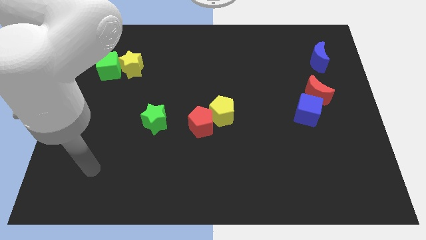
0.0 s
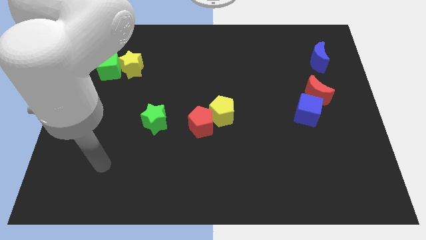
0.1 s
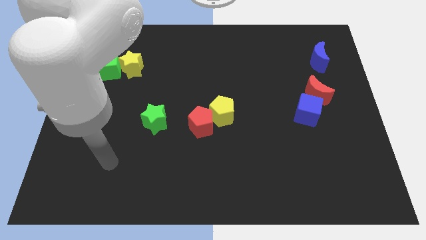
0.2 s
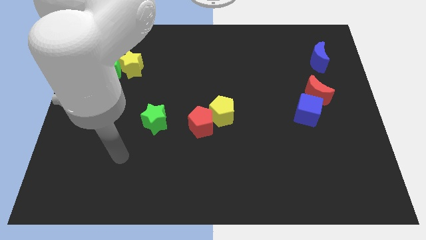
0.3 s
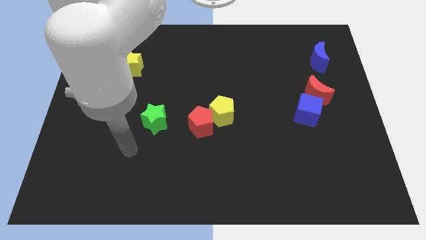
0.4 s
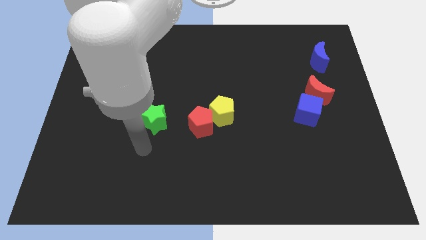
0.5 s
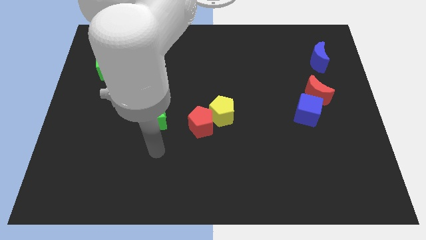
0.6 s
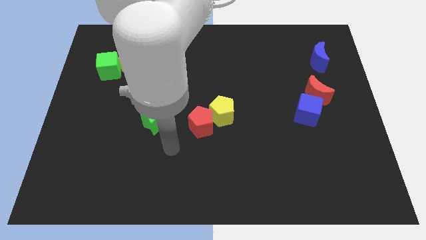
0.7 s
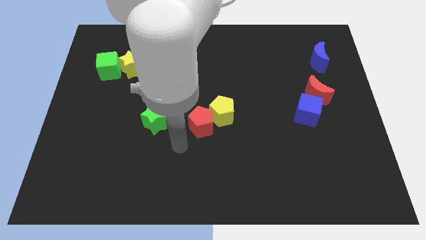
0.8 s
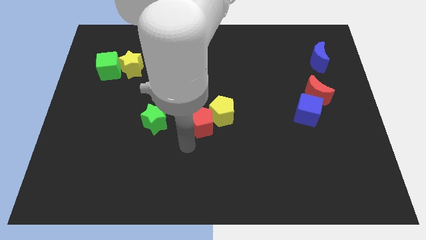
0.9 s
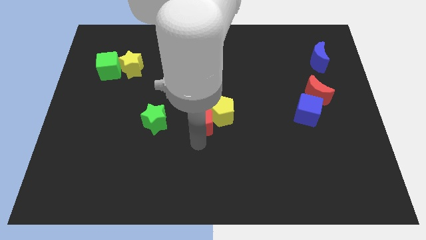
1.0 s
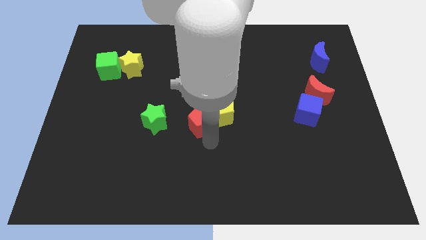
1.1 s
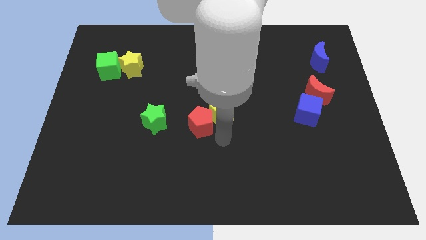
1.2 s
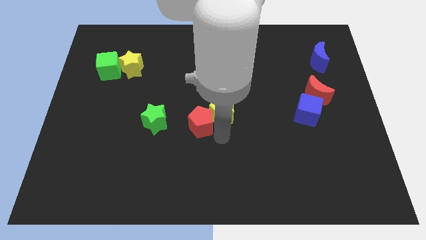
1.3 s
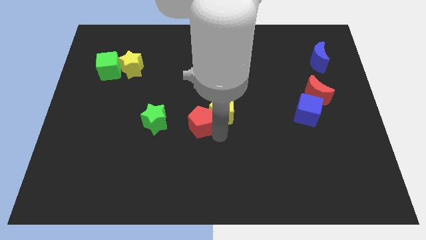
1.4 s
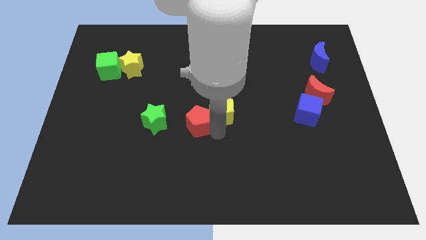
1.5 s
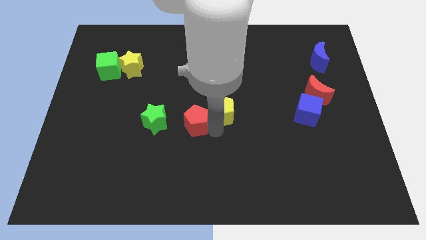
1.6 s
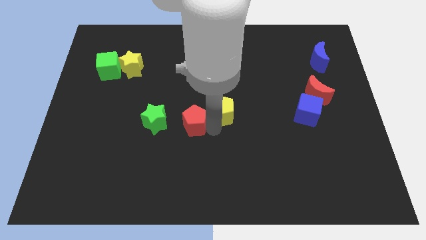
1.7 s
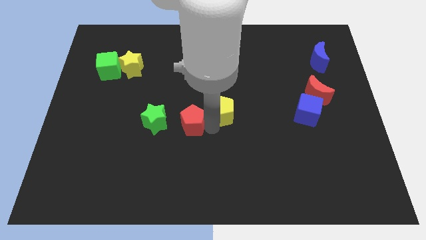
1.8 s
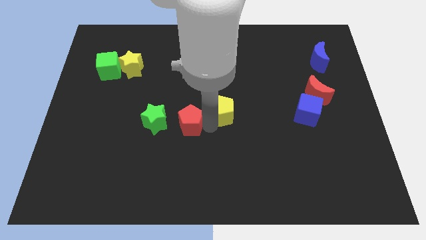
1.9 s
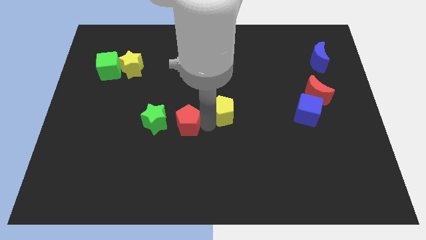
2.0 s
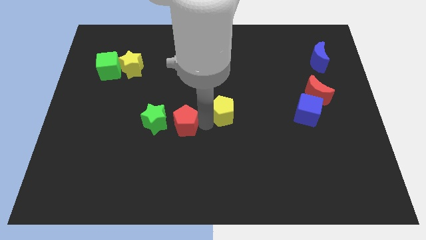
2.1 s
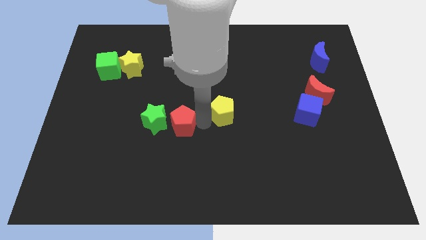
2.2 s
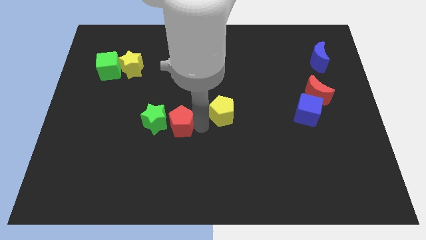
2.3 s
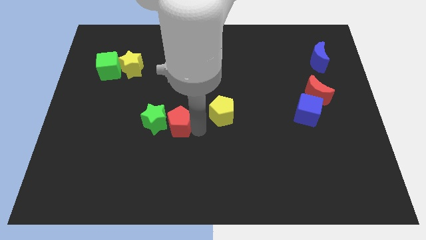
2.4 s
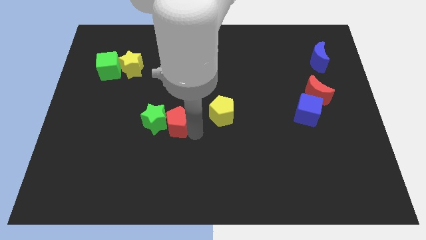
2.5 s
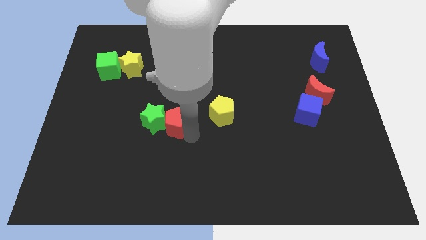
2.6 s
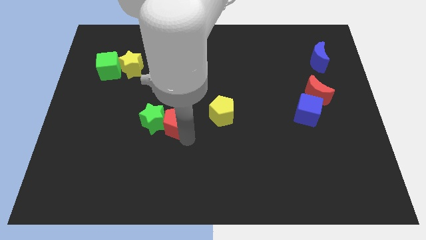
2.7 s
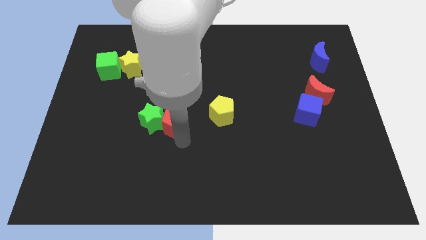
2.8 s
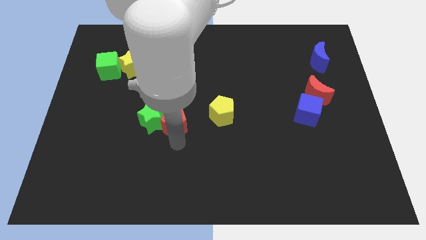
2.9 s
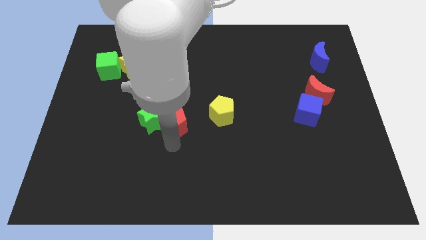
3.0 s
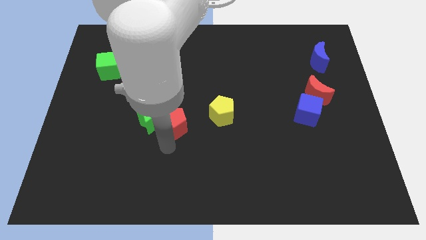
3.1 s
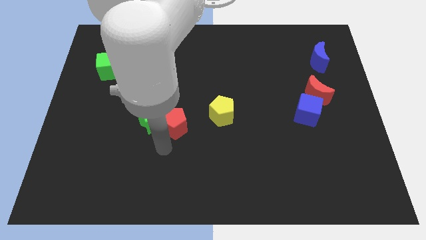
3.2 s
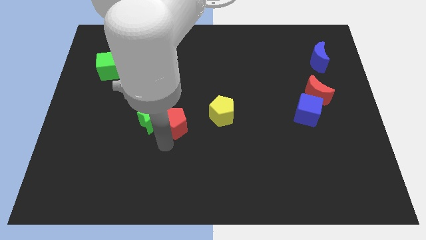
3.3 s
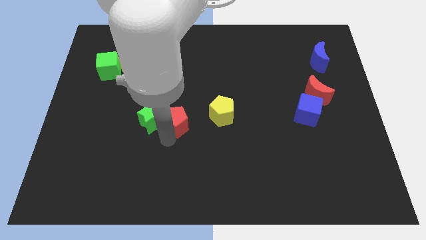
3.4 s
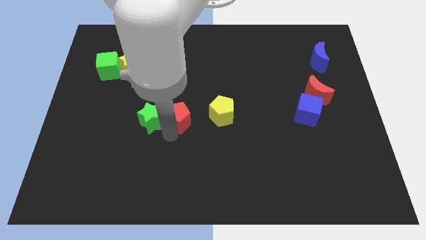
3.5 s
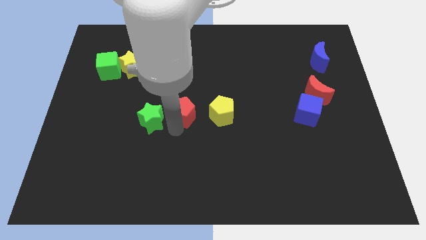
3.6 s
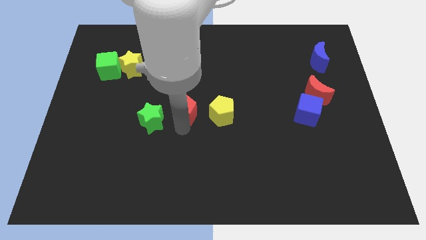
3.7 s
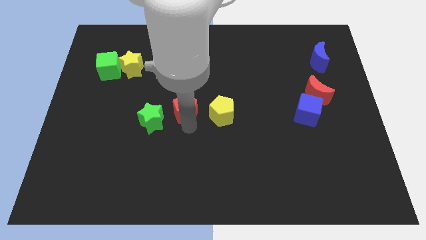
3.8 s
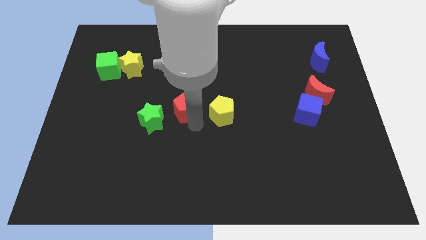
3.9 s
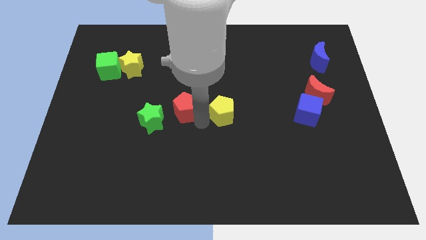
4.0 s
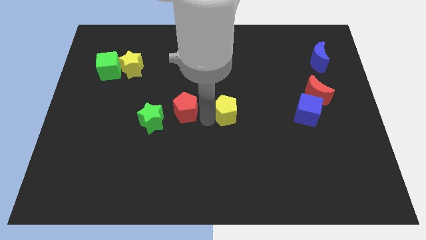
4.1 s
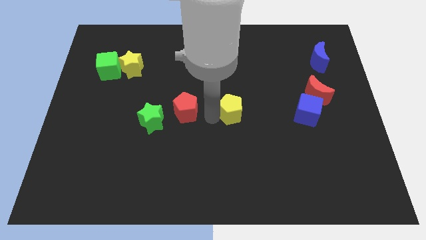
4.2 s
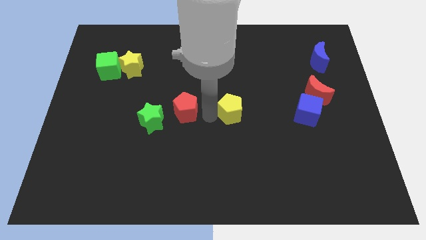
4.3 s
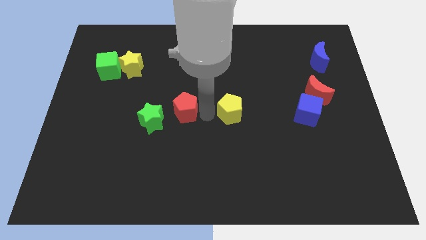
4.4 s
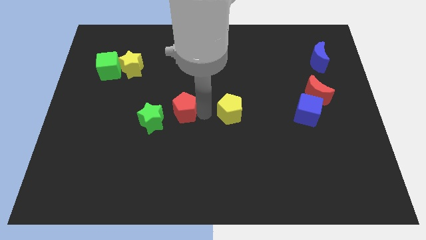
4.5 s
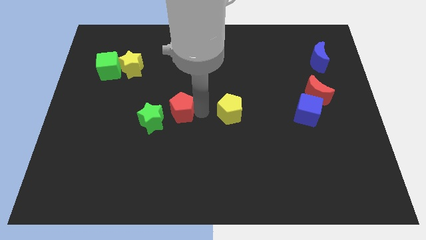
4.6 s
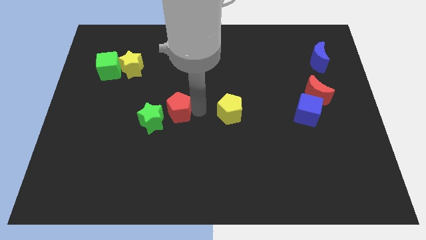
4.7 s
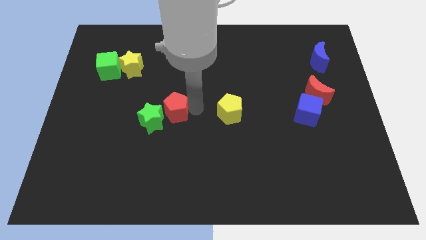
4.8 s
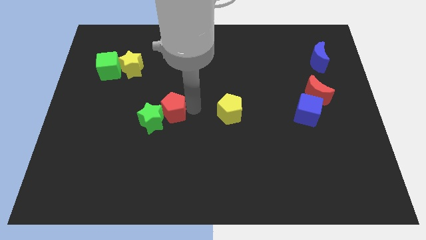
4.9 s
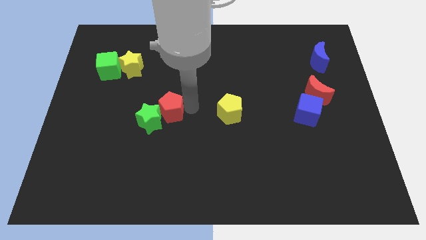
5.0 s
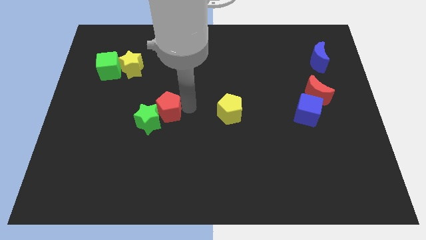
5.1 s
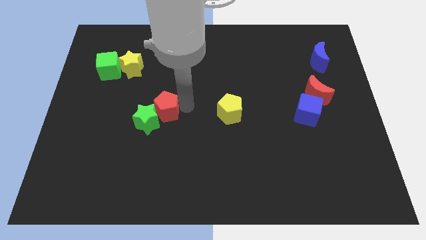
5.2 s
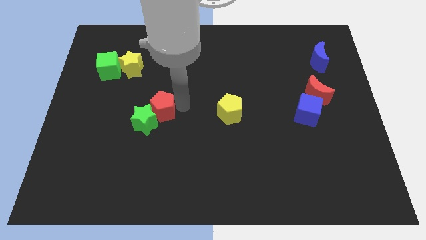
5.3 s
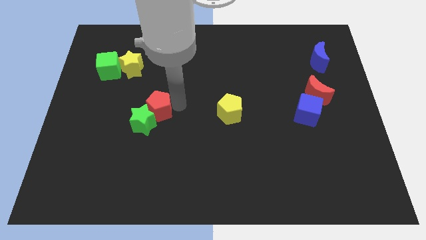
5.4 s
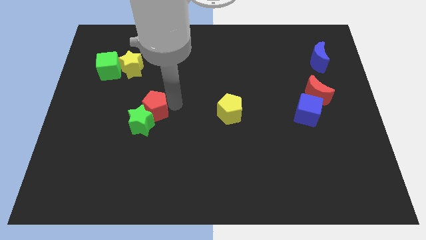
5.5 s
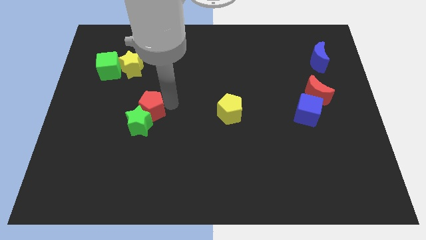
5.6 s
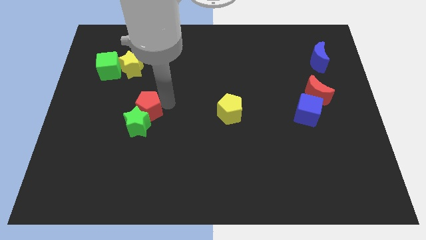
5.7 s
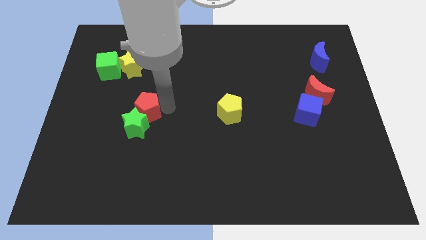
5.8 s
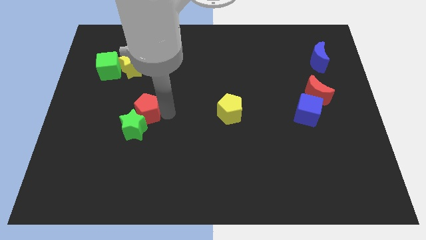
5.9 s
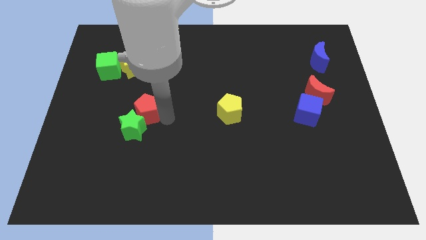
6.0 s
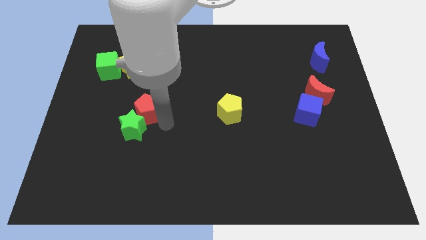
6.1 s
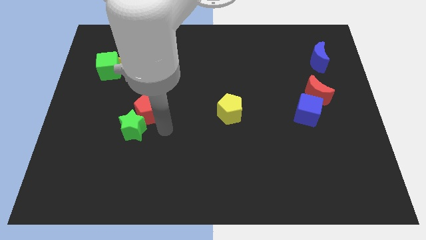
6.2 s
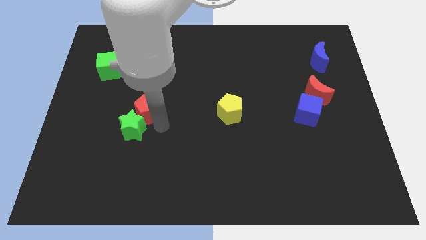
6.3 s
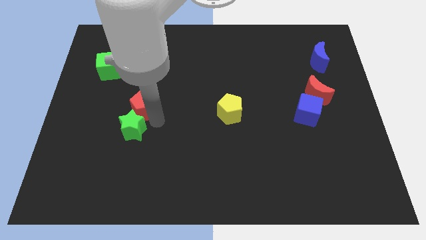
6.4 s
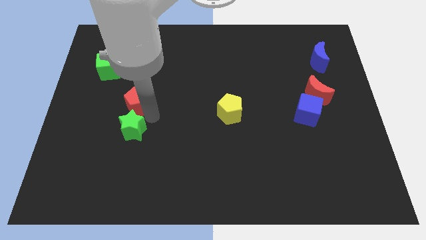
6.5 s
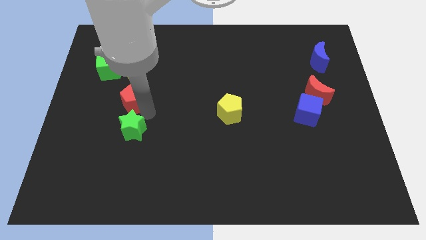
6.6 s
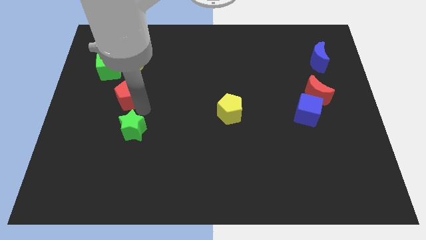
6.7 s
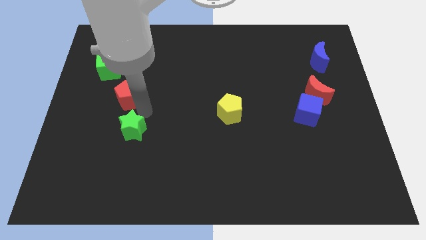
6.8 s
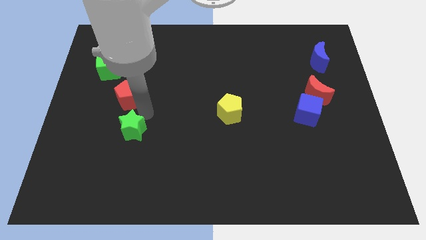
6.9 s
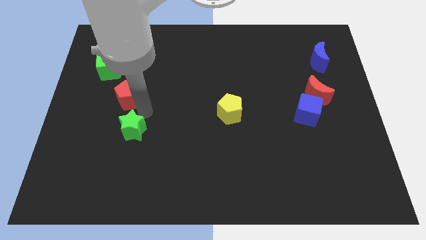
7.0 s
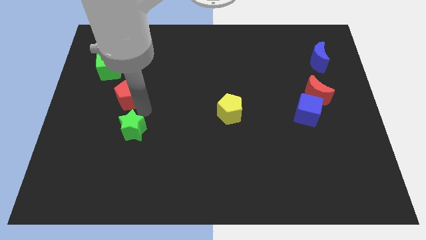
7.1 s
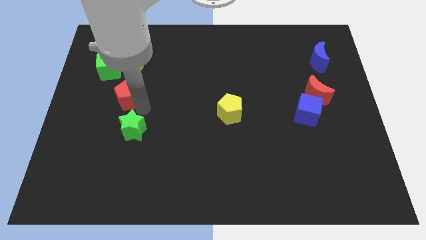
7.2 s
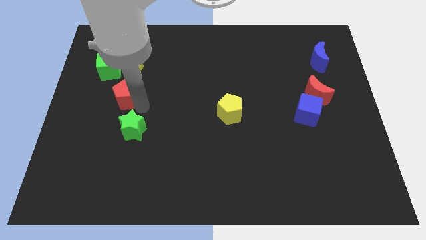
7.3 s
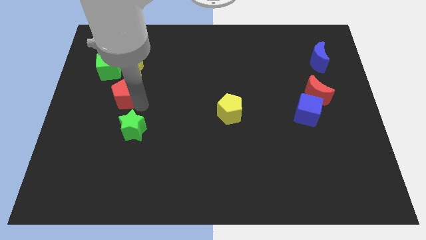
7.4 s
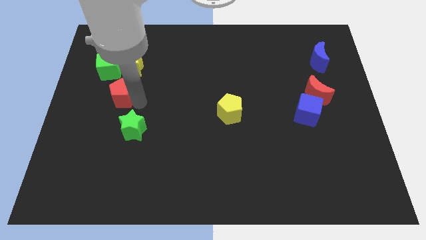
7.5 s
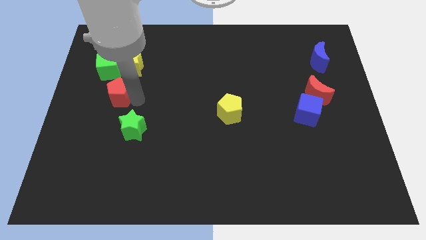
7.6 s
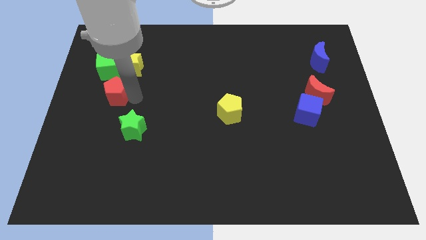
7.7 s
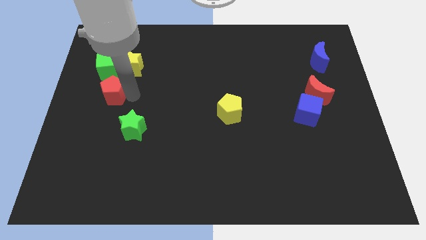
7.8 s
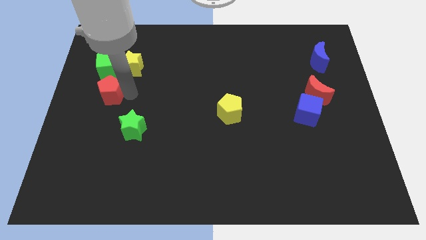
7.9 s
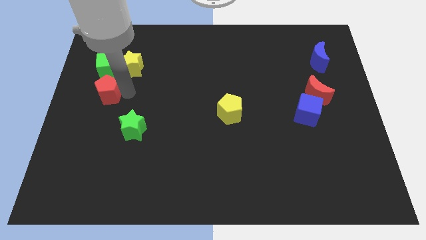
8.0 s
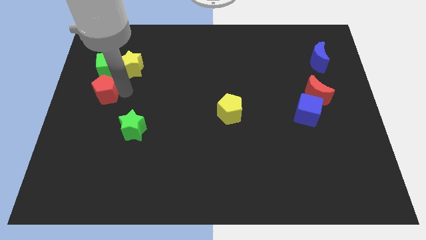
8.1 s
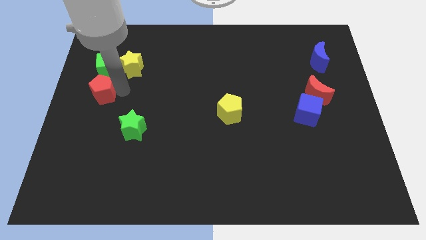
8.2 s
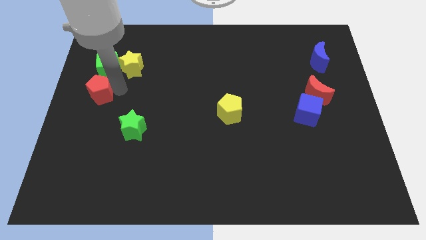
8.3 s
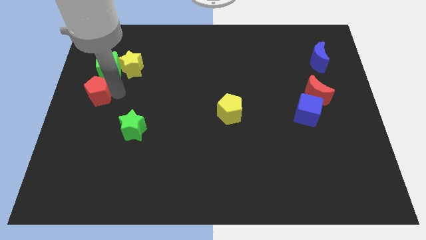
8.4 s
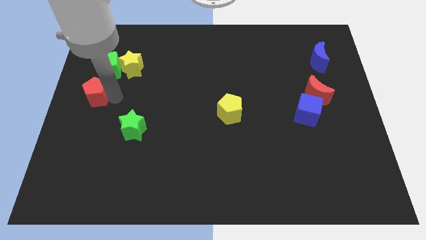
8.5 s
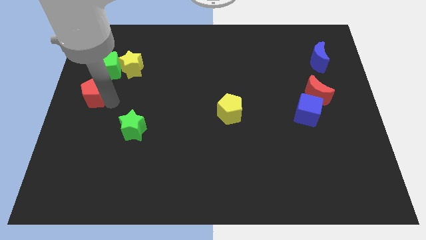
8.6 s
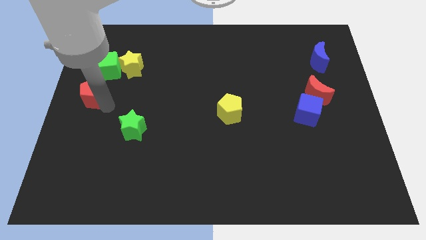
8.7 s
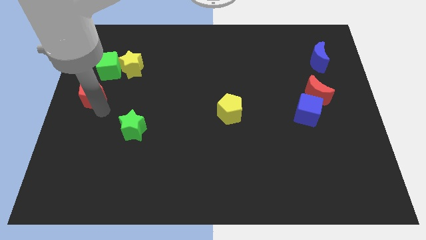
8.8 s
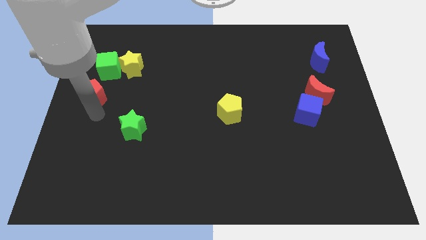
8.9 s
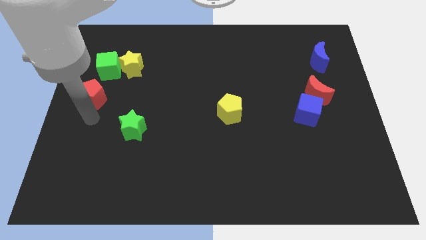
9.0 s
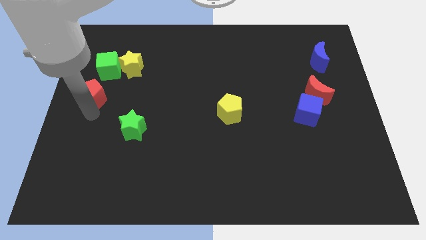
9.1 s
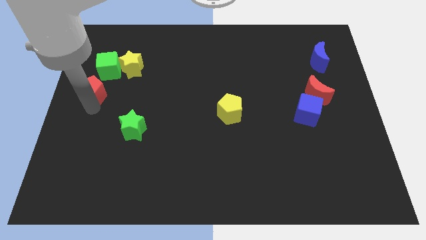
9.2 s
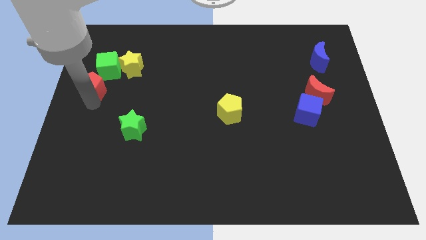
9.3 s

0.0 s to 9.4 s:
move the red pentagon upwards and to the left
